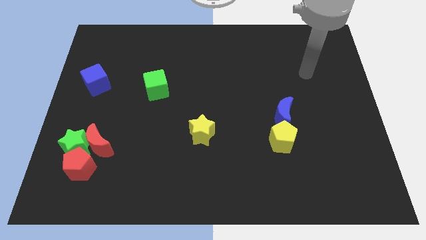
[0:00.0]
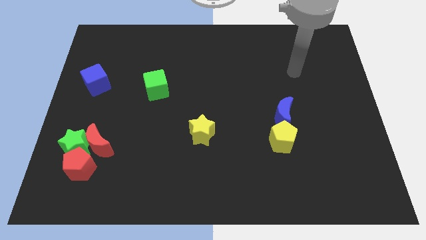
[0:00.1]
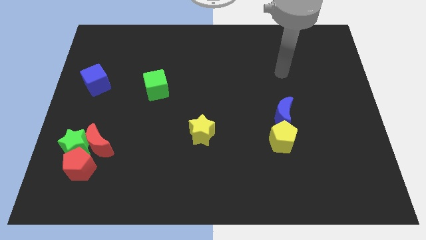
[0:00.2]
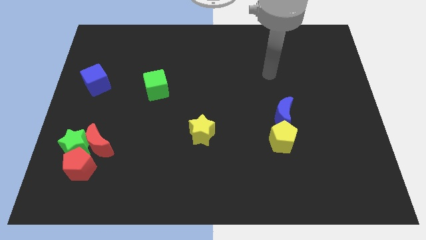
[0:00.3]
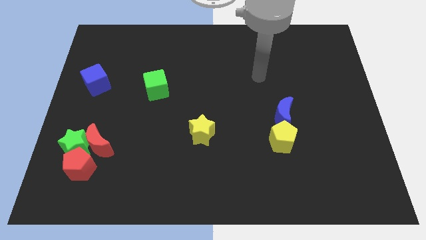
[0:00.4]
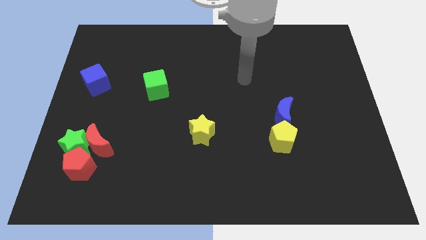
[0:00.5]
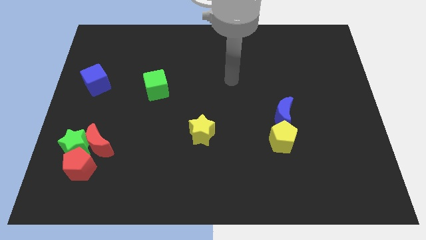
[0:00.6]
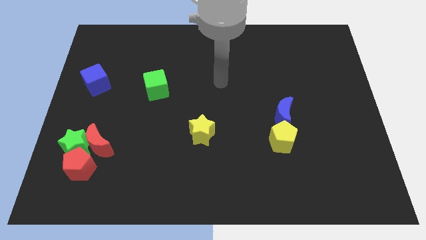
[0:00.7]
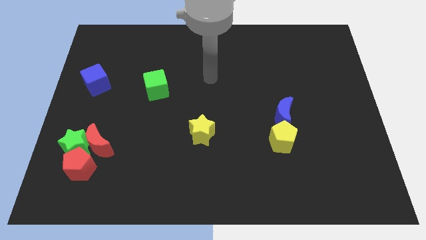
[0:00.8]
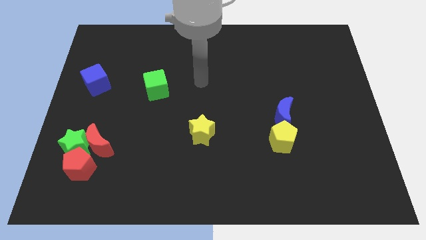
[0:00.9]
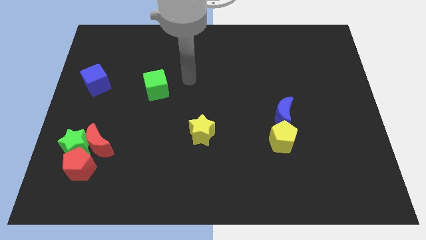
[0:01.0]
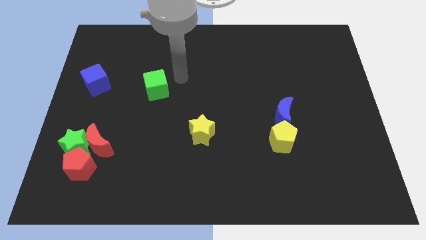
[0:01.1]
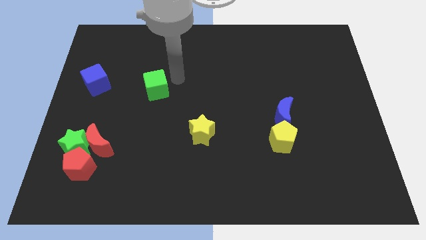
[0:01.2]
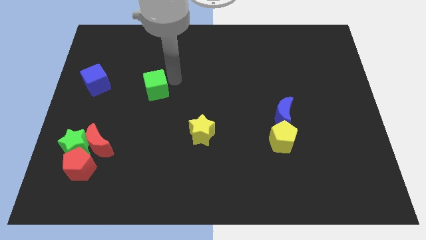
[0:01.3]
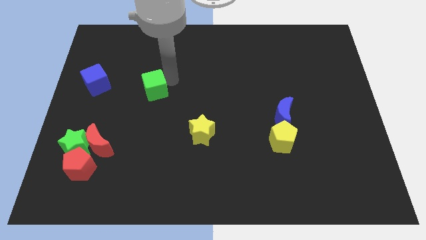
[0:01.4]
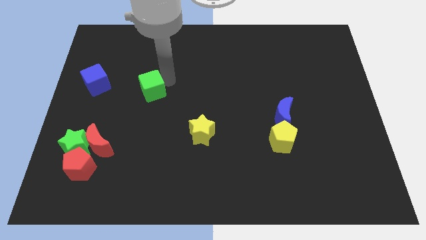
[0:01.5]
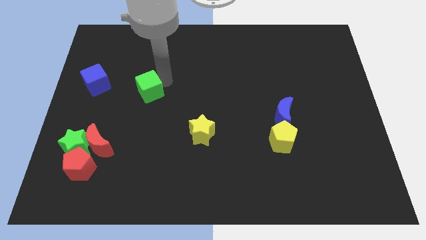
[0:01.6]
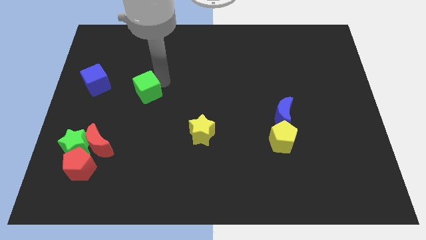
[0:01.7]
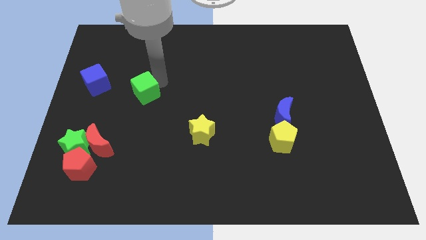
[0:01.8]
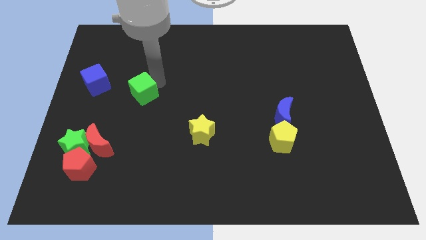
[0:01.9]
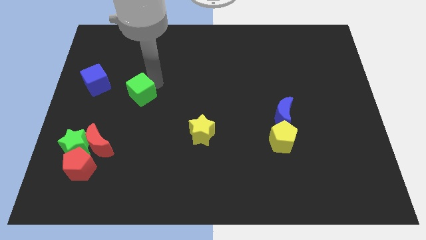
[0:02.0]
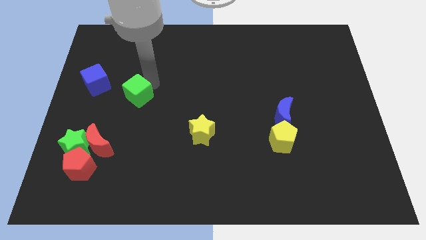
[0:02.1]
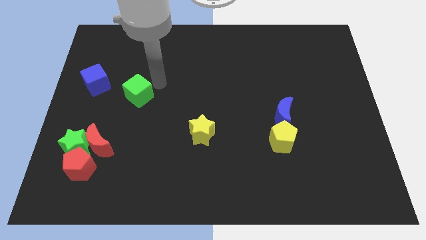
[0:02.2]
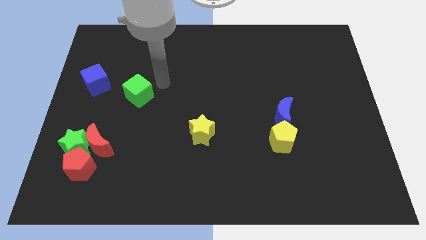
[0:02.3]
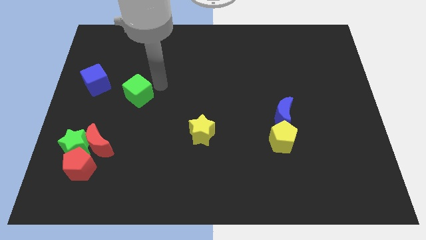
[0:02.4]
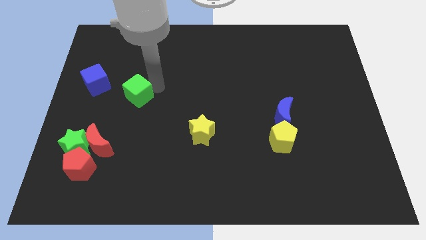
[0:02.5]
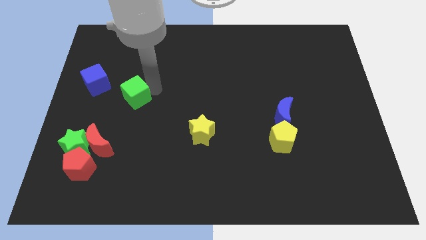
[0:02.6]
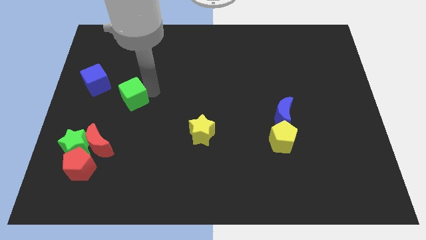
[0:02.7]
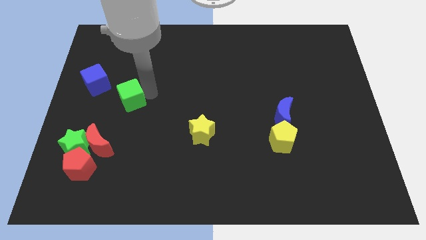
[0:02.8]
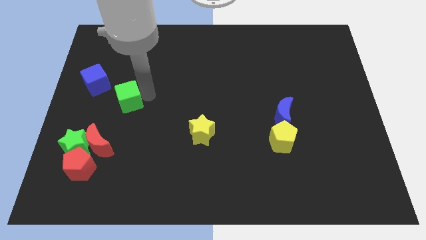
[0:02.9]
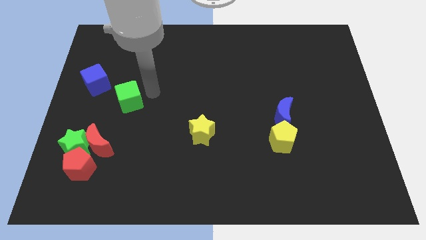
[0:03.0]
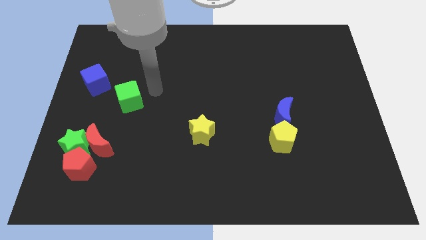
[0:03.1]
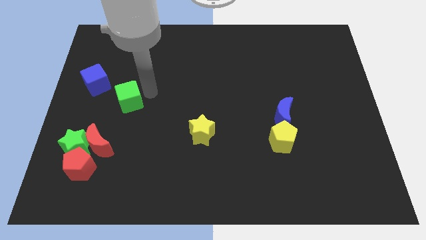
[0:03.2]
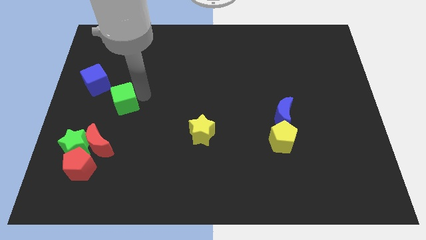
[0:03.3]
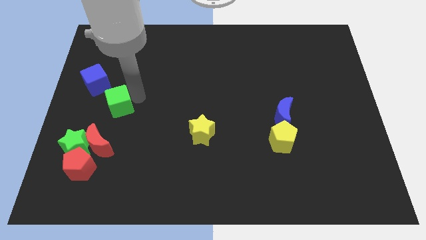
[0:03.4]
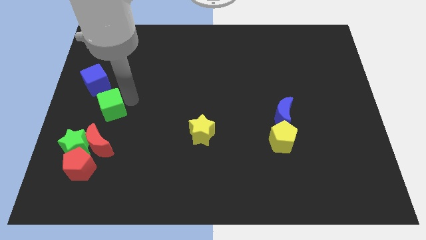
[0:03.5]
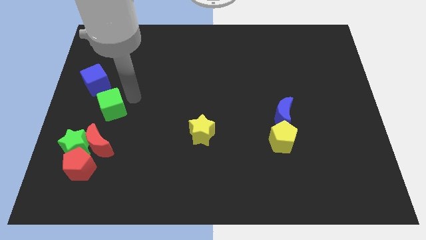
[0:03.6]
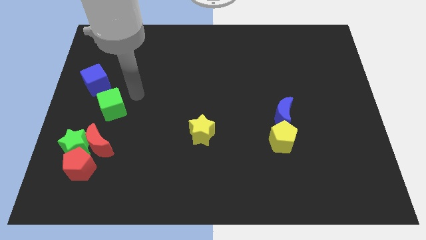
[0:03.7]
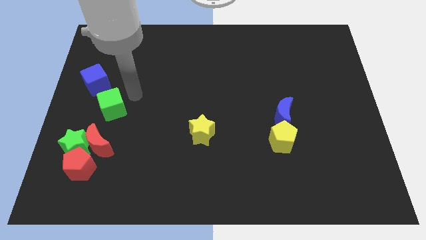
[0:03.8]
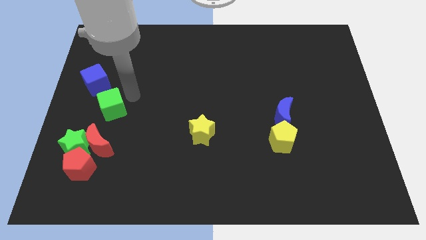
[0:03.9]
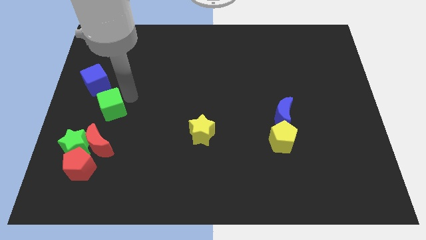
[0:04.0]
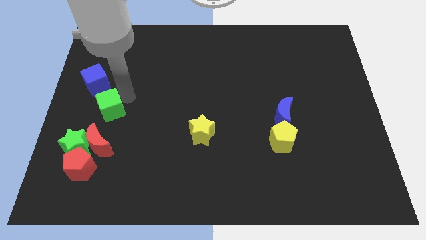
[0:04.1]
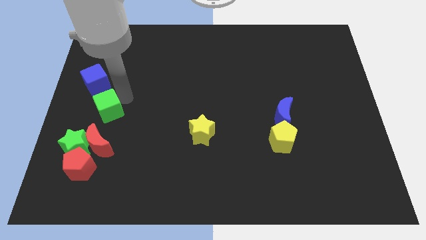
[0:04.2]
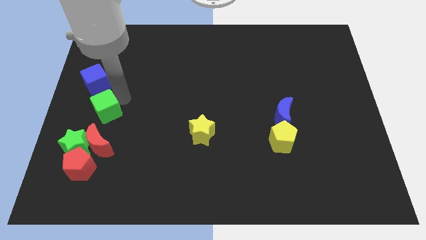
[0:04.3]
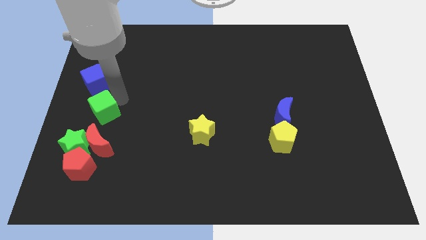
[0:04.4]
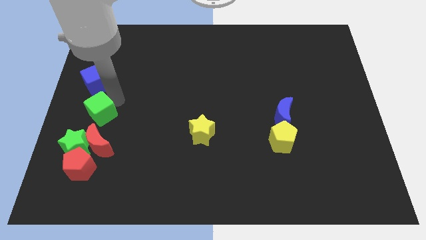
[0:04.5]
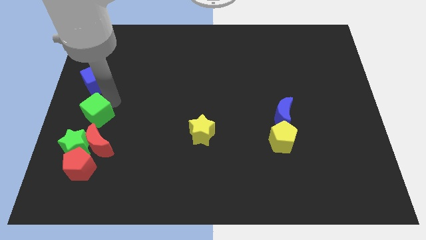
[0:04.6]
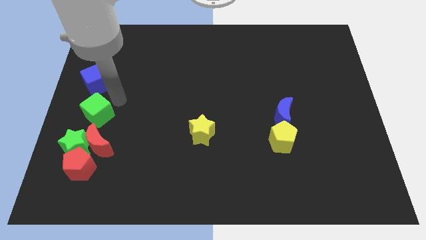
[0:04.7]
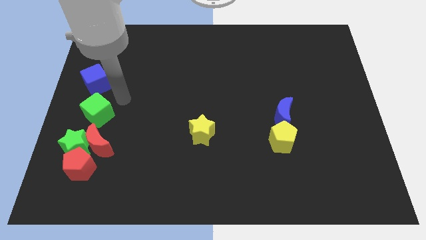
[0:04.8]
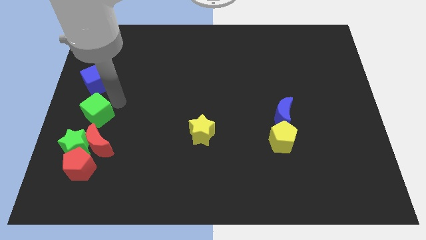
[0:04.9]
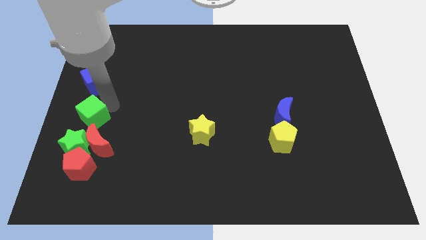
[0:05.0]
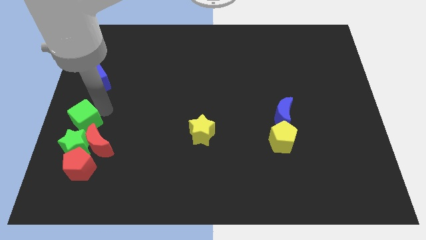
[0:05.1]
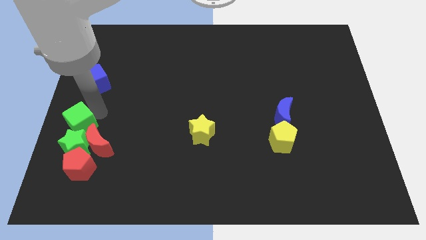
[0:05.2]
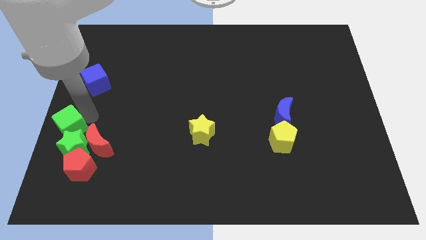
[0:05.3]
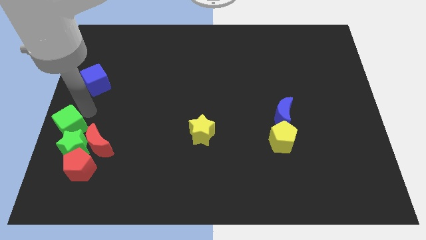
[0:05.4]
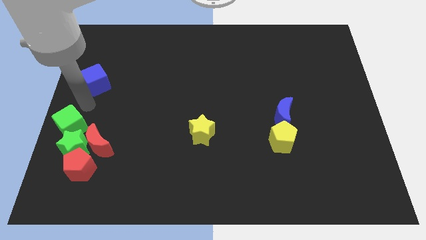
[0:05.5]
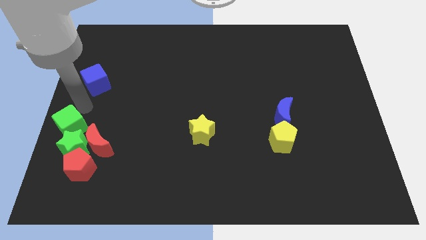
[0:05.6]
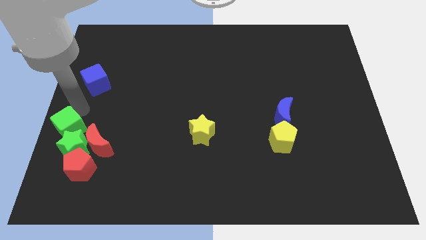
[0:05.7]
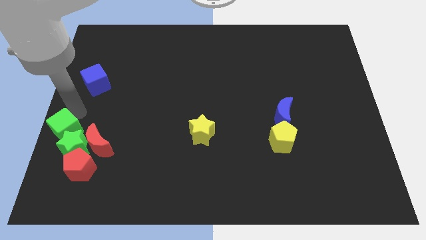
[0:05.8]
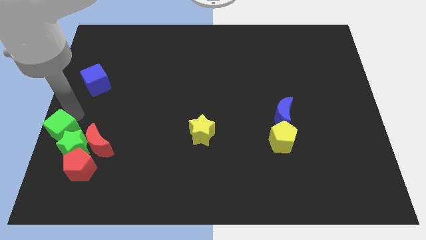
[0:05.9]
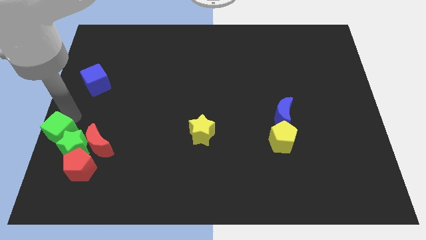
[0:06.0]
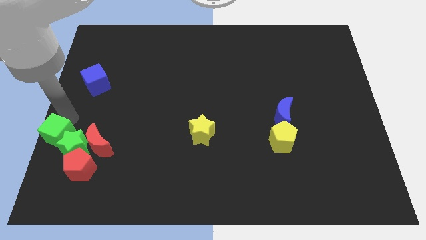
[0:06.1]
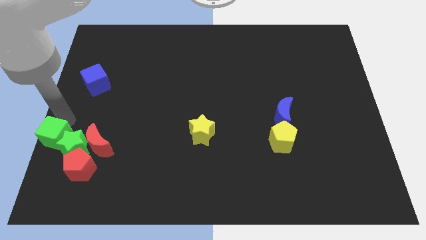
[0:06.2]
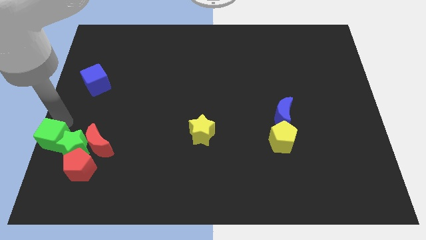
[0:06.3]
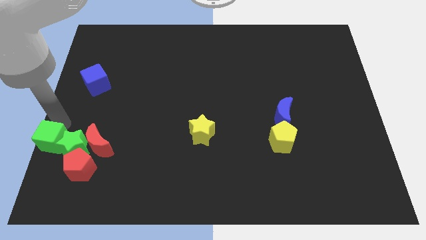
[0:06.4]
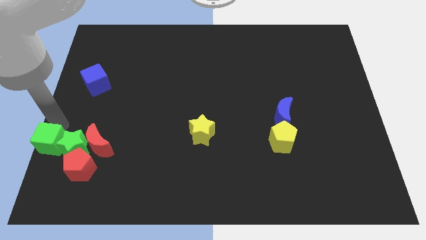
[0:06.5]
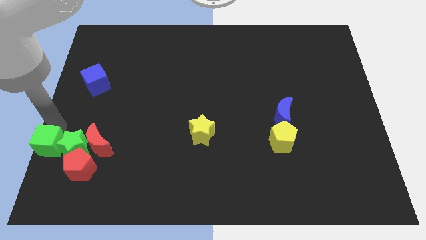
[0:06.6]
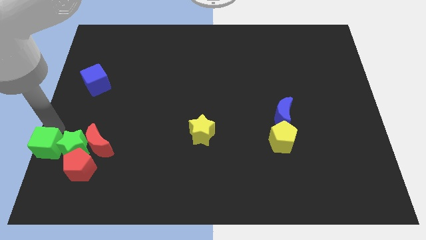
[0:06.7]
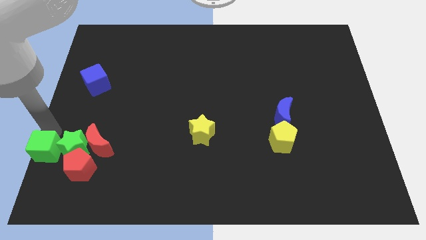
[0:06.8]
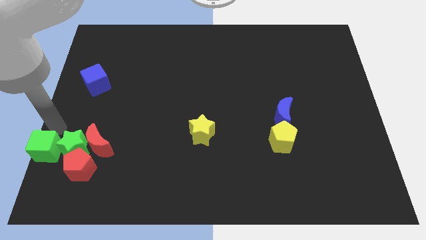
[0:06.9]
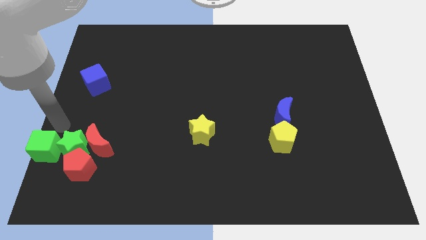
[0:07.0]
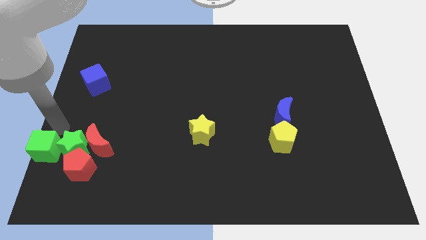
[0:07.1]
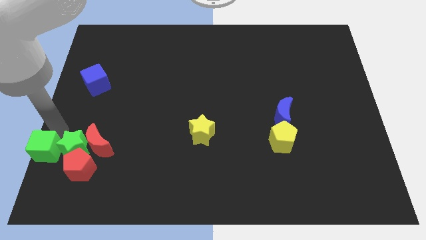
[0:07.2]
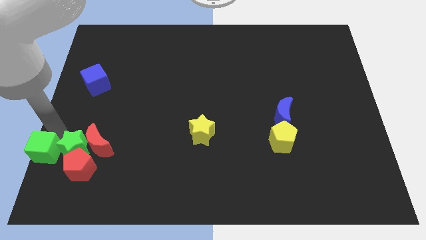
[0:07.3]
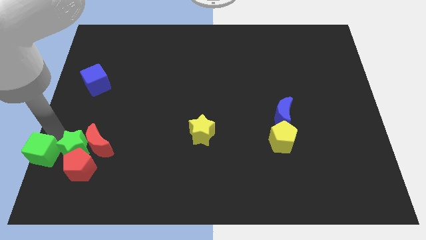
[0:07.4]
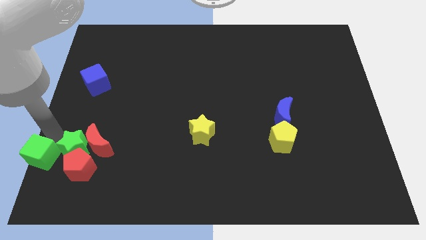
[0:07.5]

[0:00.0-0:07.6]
put the green cube to the bottom left corner
